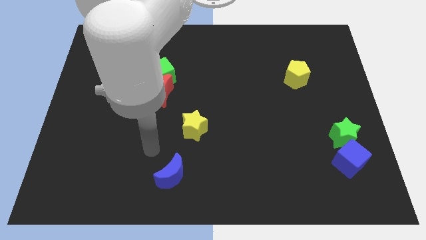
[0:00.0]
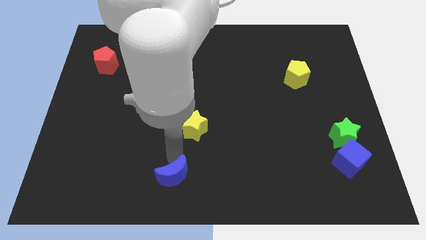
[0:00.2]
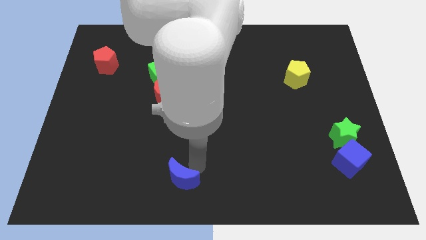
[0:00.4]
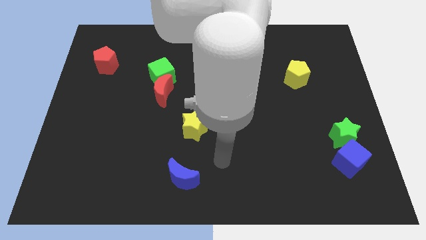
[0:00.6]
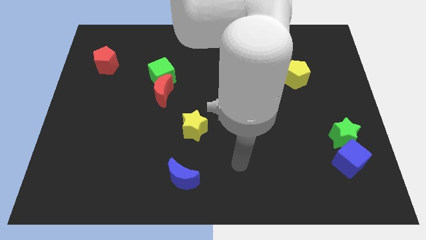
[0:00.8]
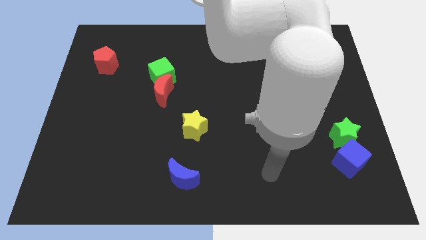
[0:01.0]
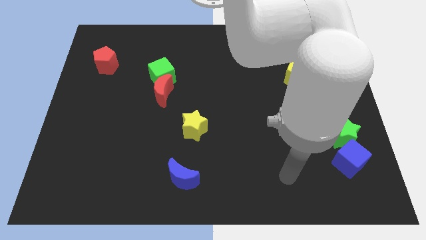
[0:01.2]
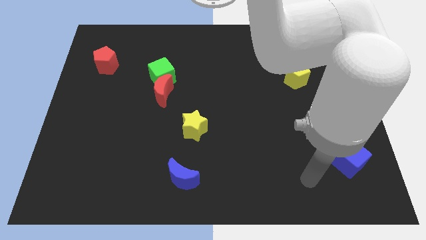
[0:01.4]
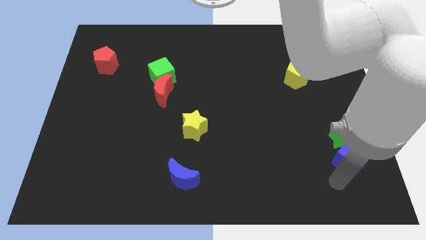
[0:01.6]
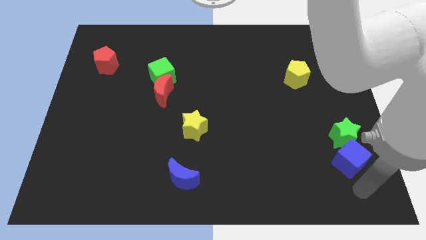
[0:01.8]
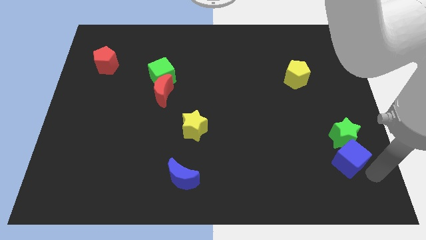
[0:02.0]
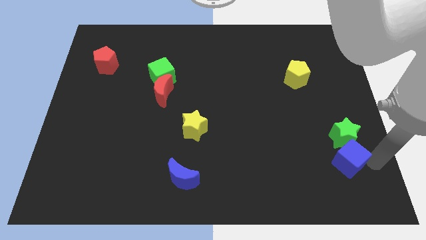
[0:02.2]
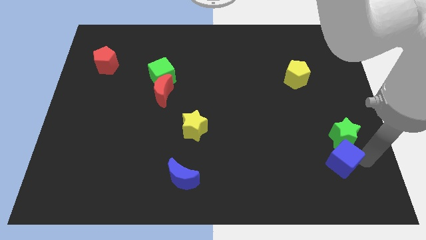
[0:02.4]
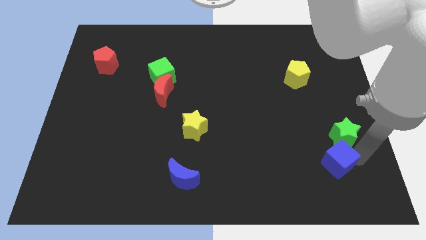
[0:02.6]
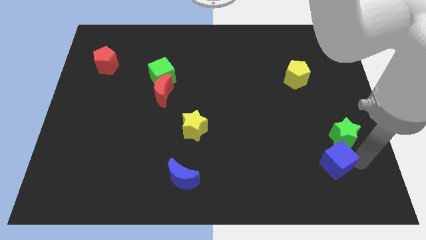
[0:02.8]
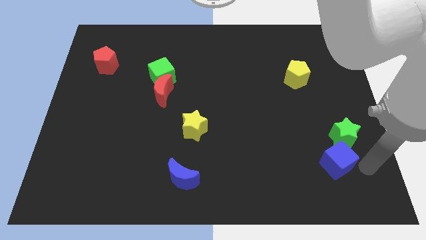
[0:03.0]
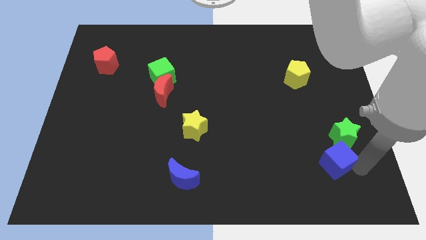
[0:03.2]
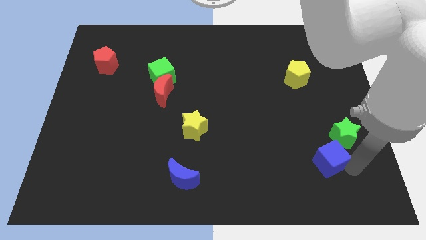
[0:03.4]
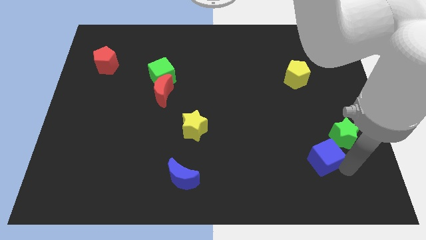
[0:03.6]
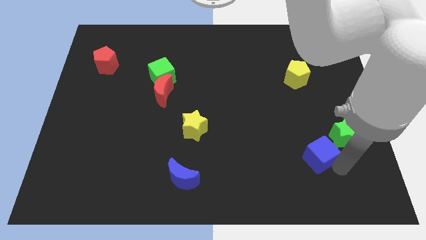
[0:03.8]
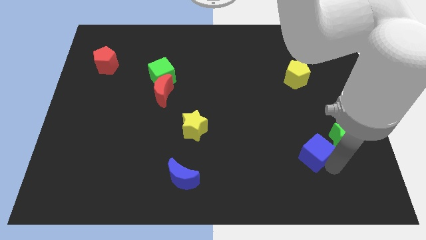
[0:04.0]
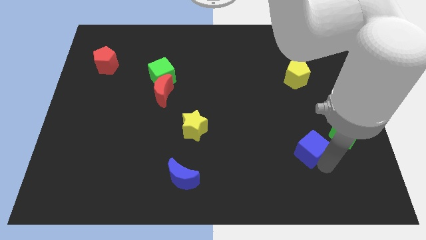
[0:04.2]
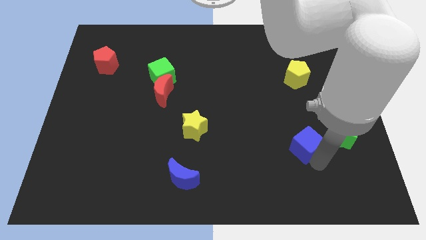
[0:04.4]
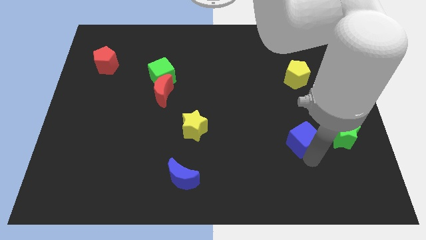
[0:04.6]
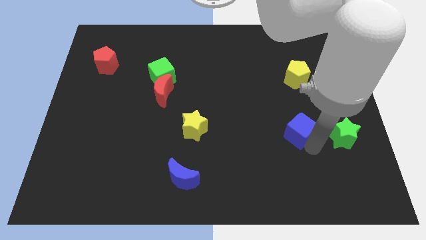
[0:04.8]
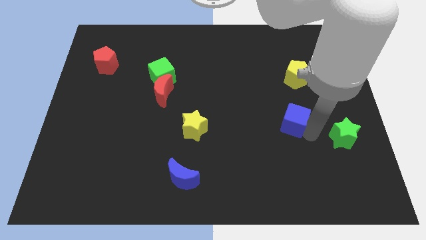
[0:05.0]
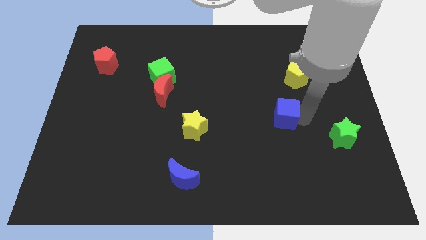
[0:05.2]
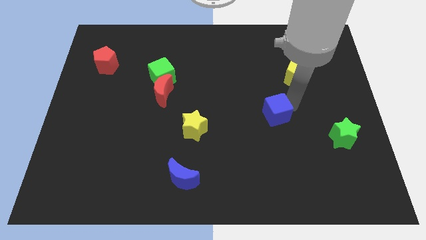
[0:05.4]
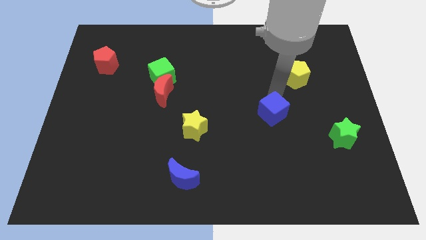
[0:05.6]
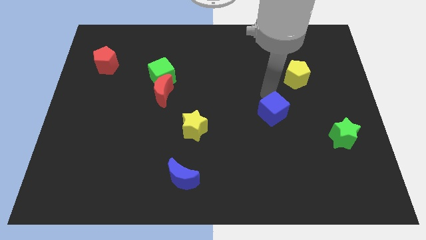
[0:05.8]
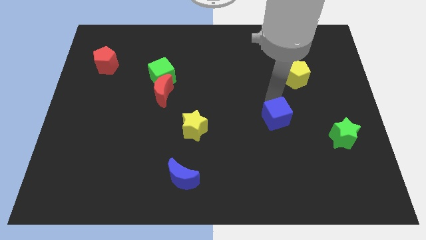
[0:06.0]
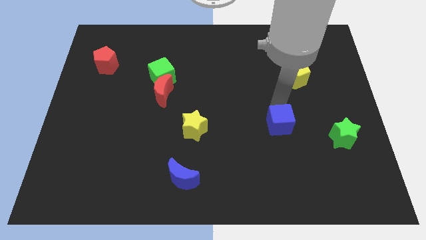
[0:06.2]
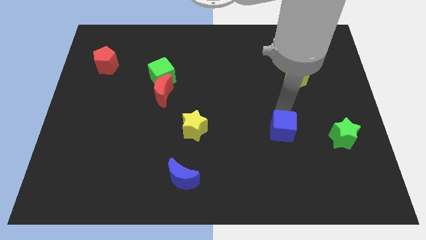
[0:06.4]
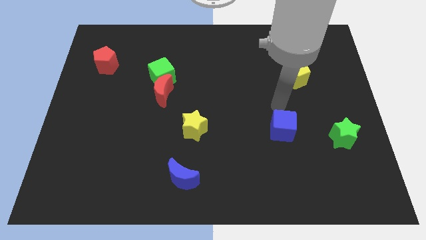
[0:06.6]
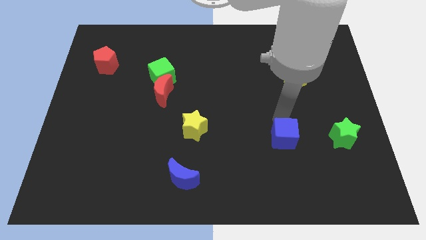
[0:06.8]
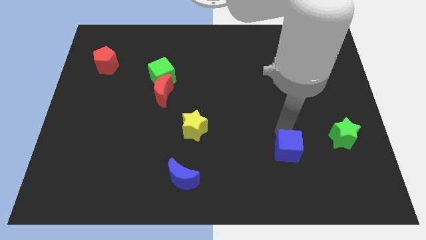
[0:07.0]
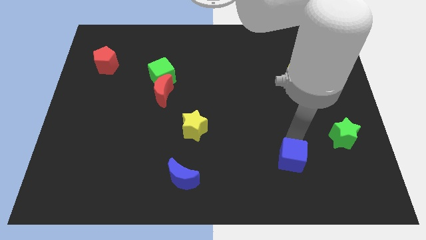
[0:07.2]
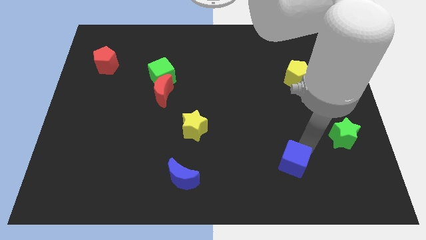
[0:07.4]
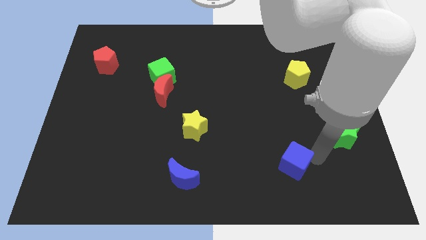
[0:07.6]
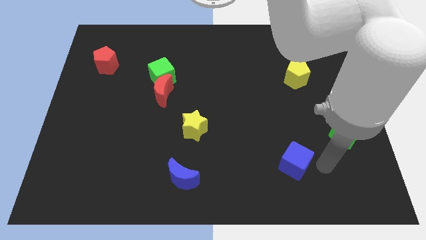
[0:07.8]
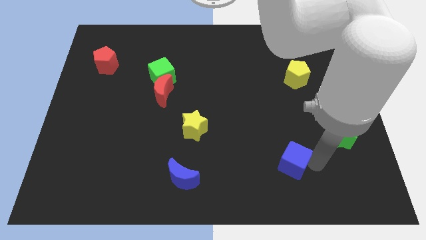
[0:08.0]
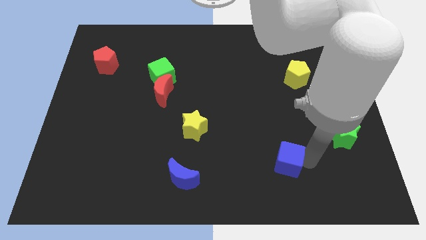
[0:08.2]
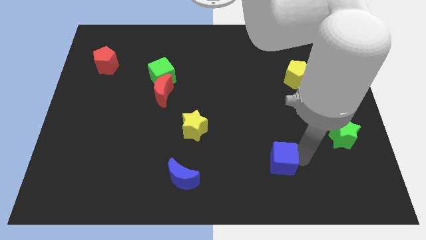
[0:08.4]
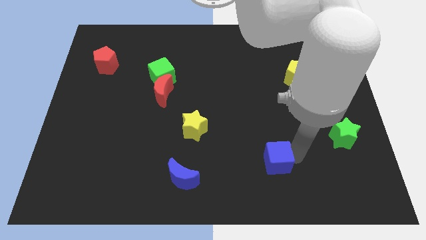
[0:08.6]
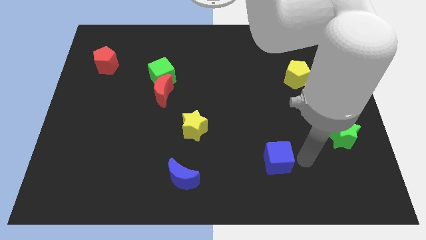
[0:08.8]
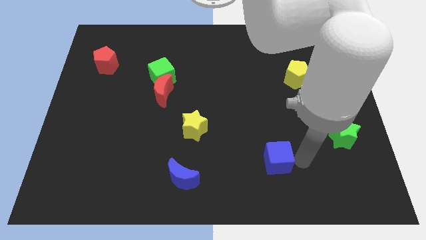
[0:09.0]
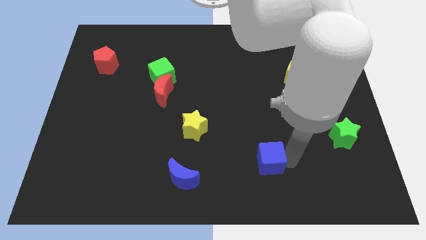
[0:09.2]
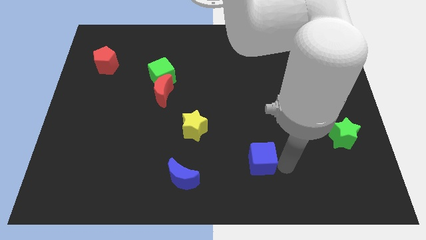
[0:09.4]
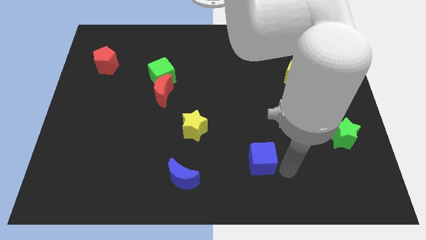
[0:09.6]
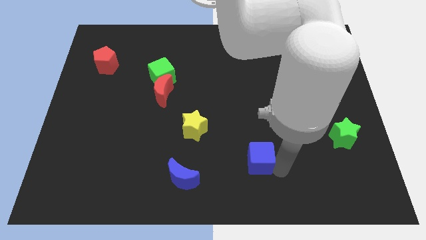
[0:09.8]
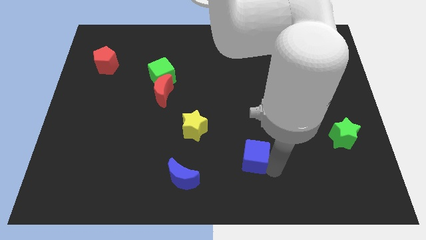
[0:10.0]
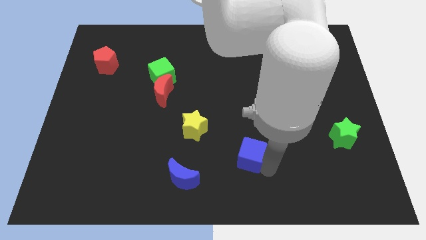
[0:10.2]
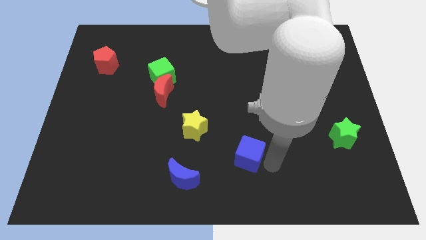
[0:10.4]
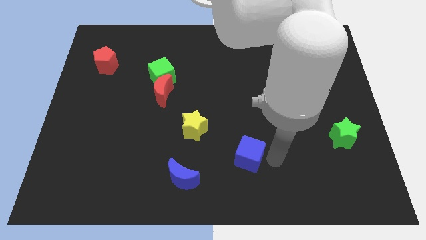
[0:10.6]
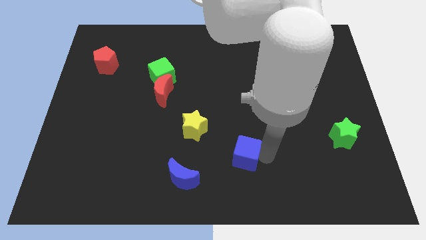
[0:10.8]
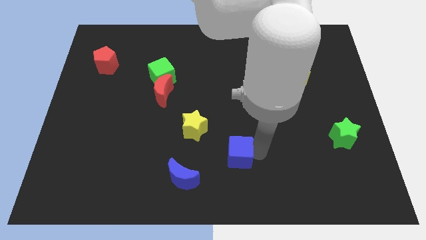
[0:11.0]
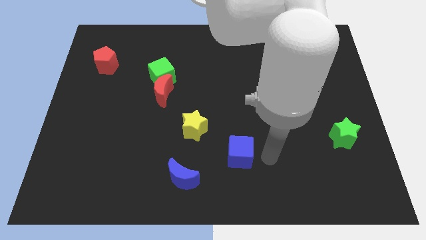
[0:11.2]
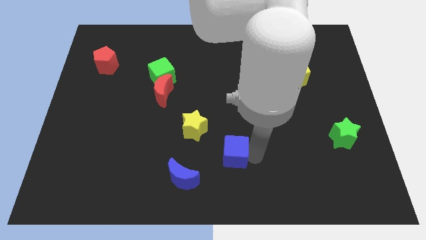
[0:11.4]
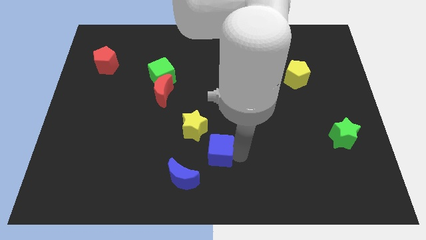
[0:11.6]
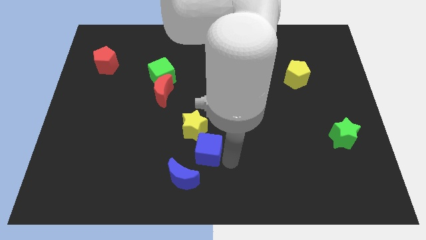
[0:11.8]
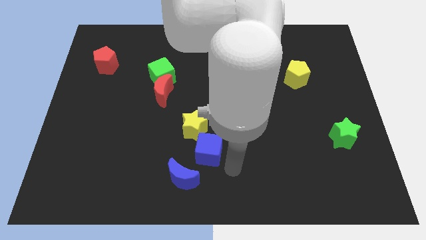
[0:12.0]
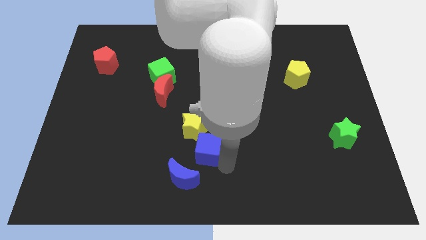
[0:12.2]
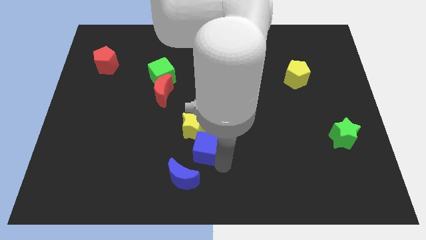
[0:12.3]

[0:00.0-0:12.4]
slide the blue cube above the blue moon

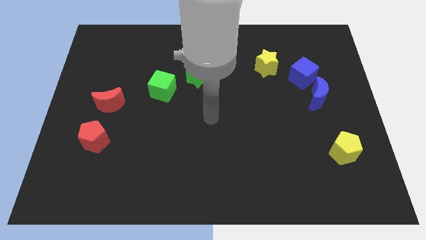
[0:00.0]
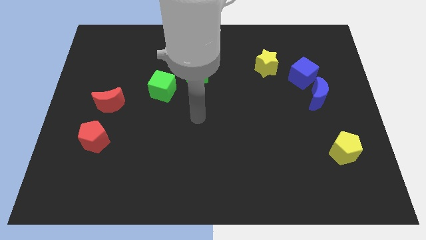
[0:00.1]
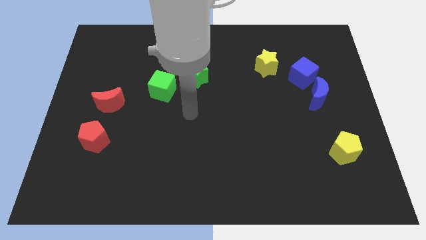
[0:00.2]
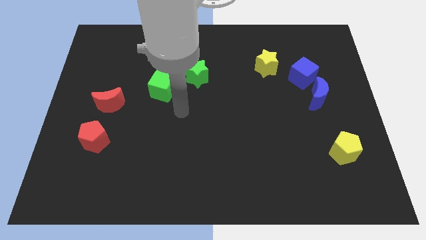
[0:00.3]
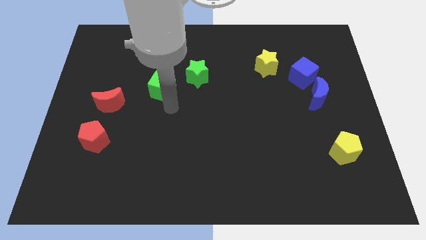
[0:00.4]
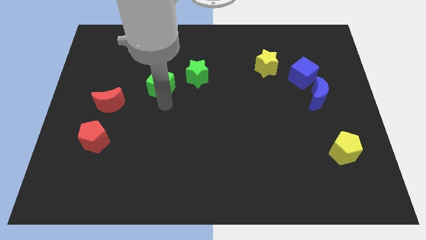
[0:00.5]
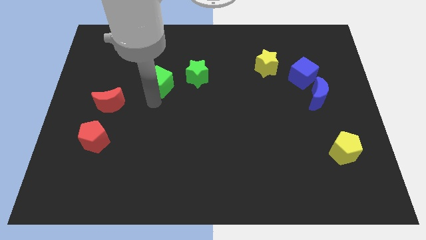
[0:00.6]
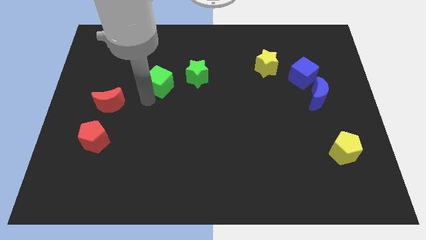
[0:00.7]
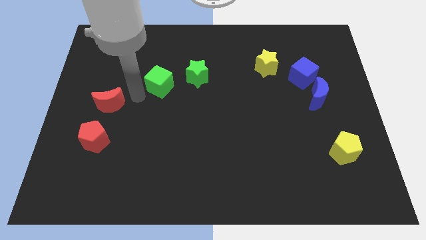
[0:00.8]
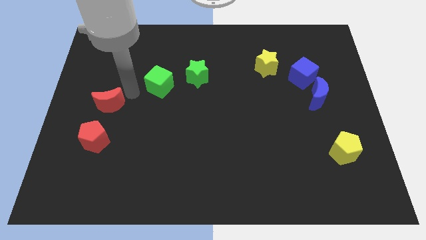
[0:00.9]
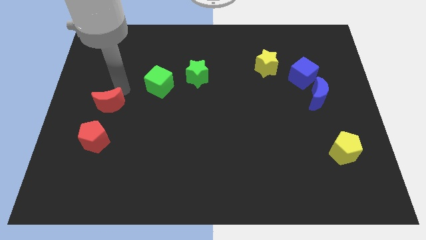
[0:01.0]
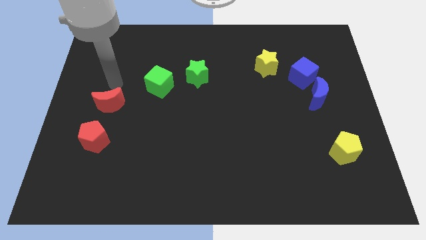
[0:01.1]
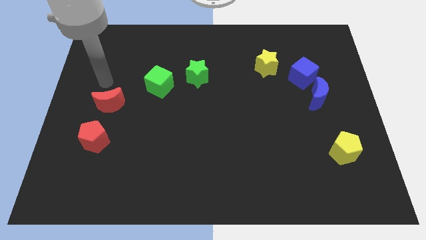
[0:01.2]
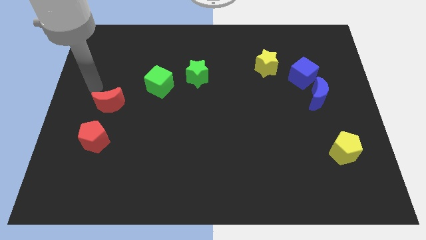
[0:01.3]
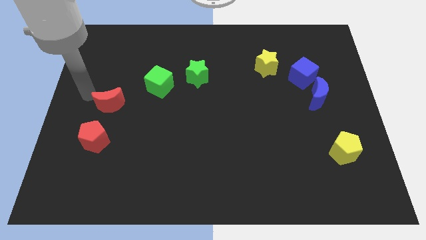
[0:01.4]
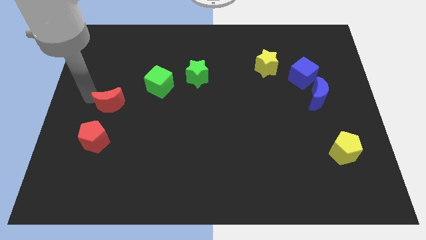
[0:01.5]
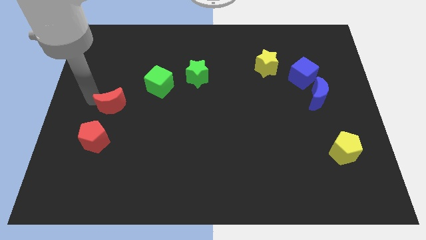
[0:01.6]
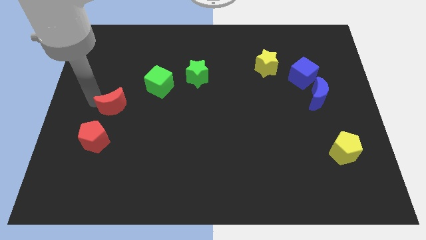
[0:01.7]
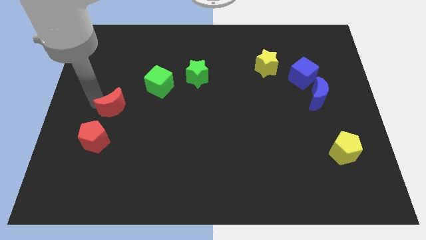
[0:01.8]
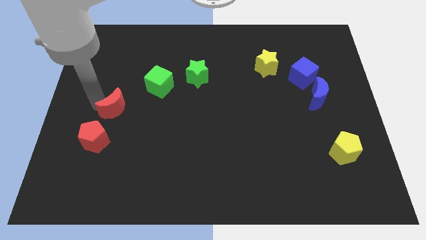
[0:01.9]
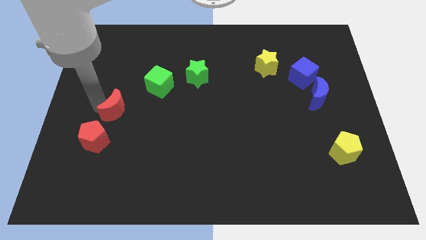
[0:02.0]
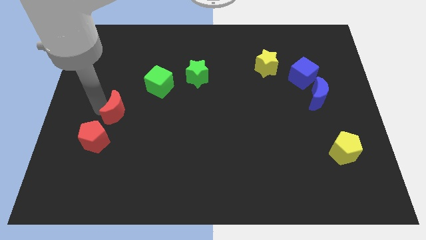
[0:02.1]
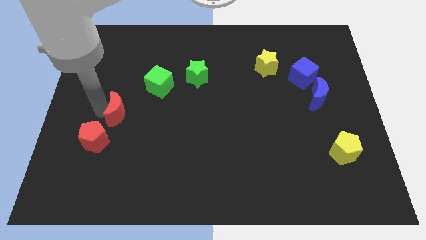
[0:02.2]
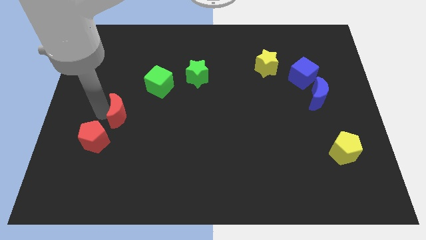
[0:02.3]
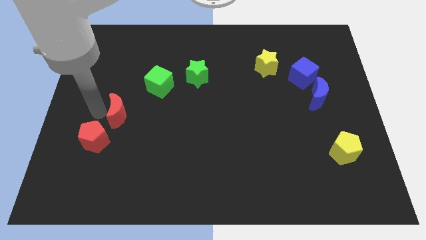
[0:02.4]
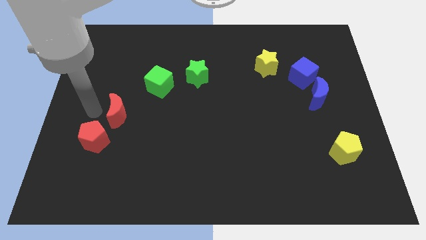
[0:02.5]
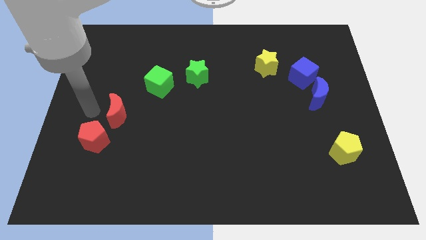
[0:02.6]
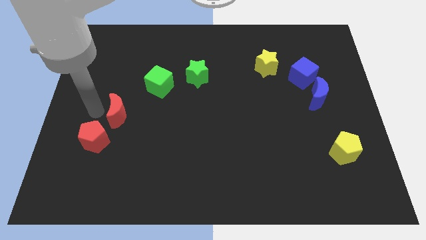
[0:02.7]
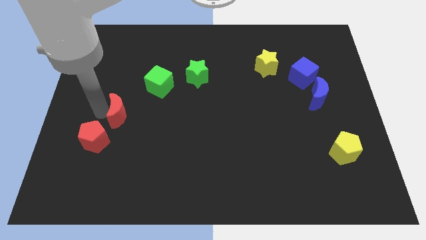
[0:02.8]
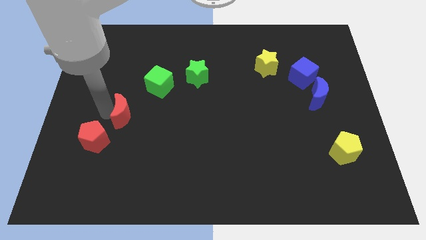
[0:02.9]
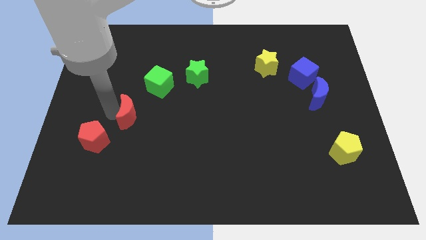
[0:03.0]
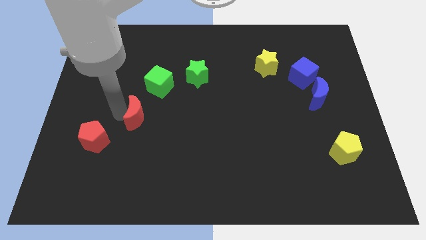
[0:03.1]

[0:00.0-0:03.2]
slide the red moon below the green cube
